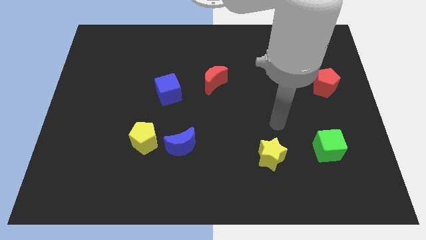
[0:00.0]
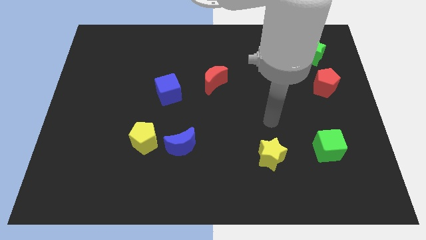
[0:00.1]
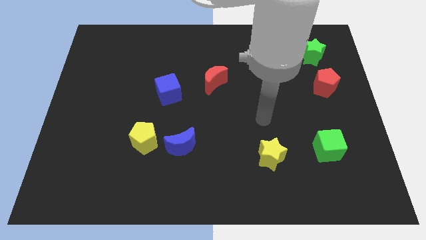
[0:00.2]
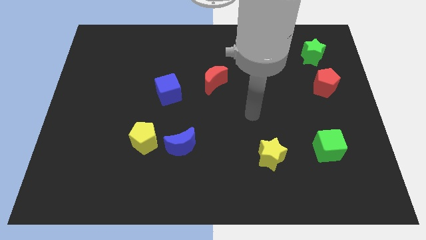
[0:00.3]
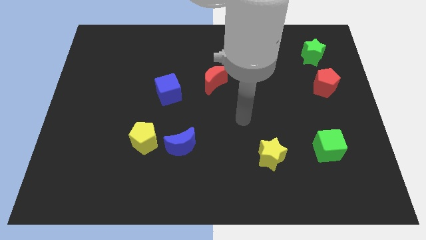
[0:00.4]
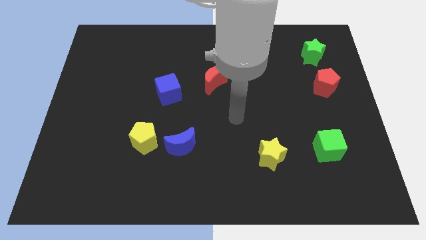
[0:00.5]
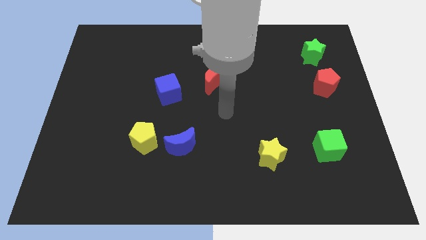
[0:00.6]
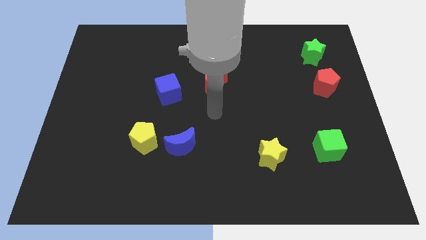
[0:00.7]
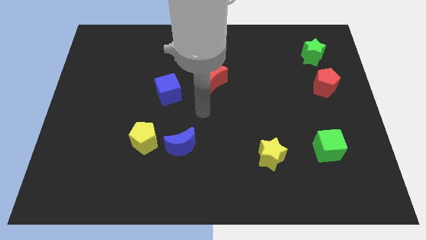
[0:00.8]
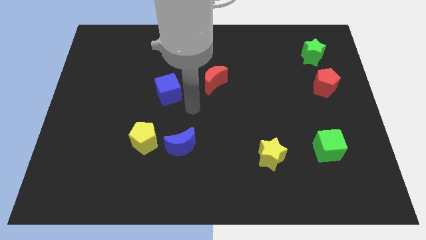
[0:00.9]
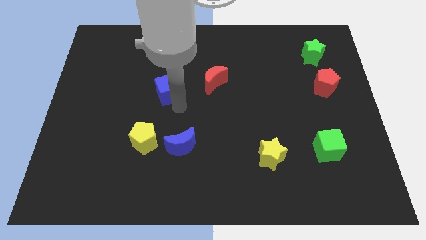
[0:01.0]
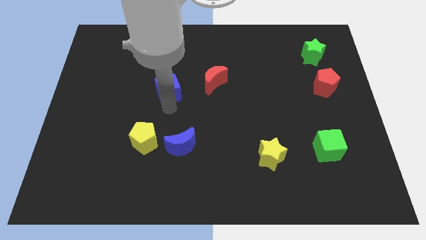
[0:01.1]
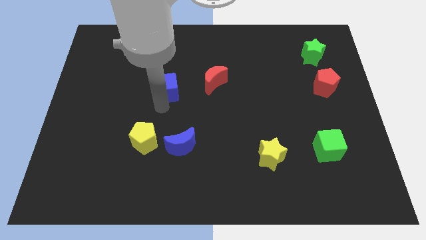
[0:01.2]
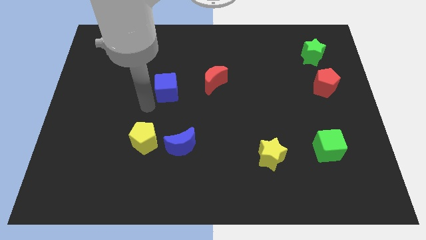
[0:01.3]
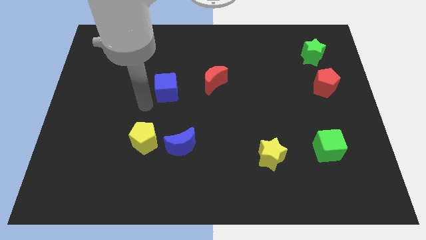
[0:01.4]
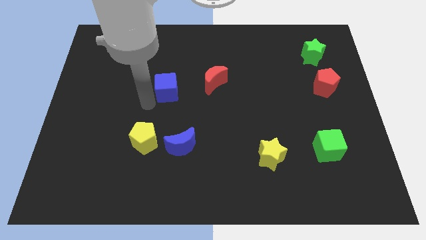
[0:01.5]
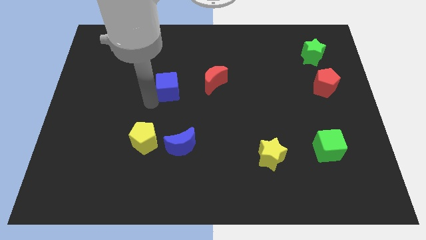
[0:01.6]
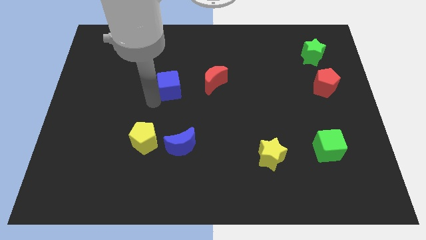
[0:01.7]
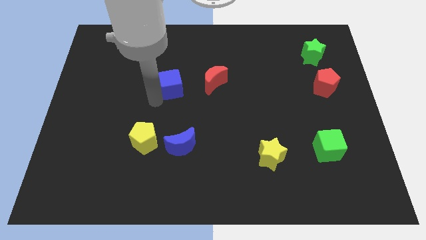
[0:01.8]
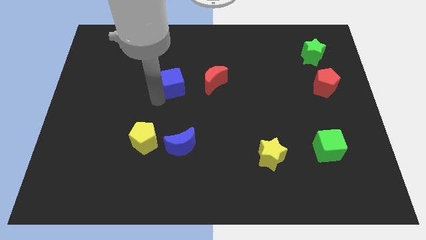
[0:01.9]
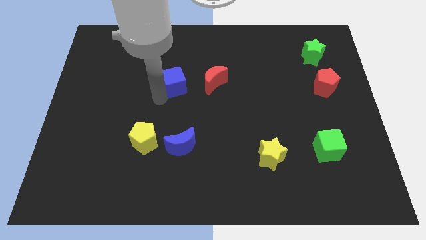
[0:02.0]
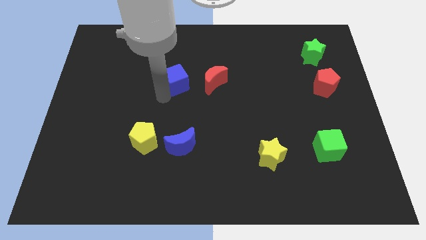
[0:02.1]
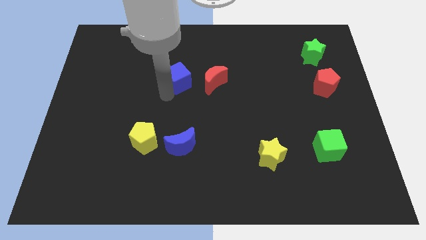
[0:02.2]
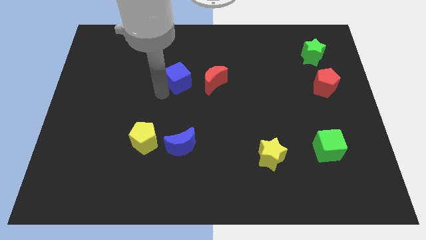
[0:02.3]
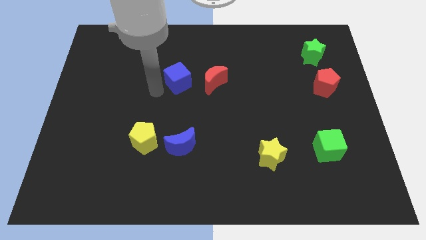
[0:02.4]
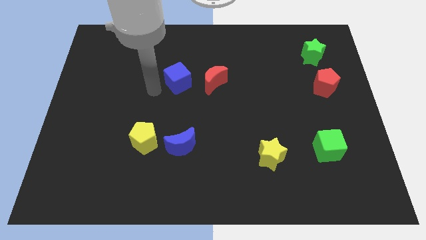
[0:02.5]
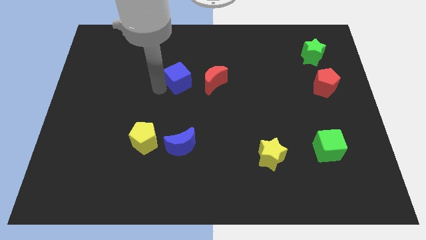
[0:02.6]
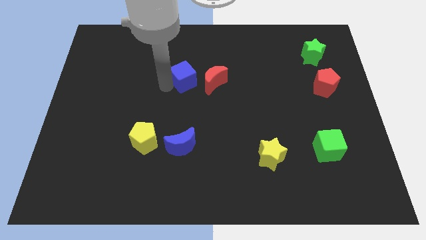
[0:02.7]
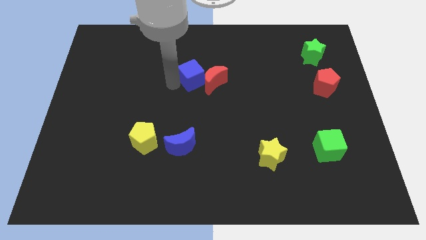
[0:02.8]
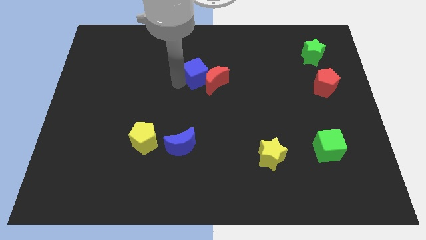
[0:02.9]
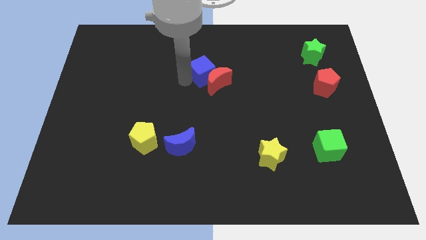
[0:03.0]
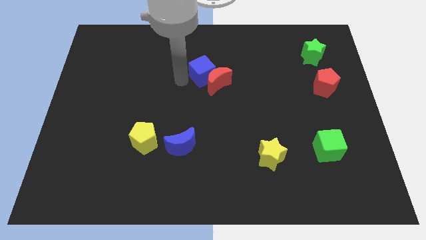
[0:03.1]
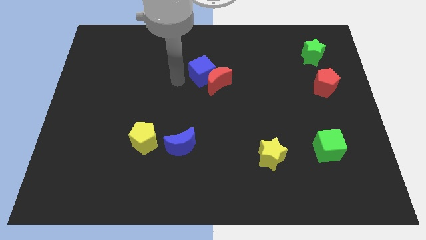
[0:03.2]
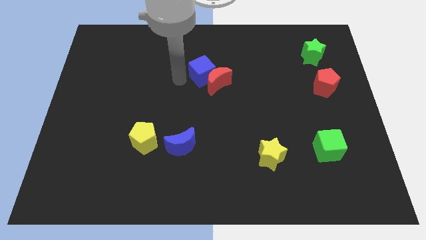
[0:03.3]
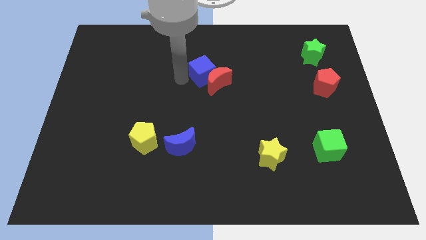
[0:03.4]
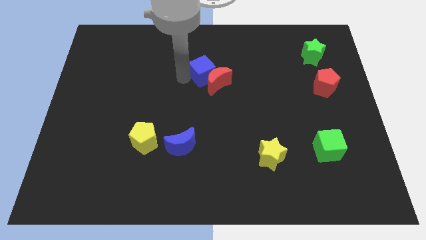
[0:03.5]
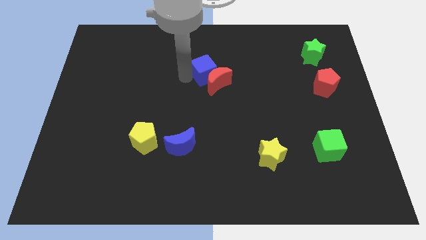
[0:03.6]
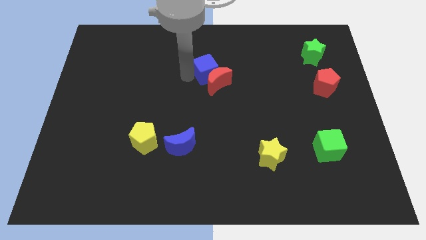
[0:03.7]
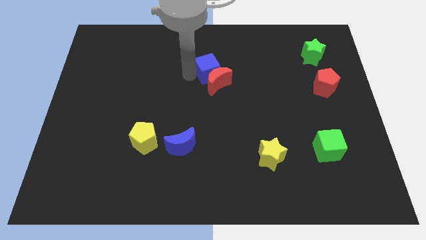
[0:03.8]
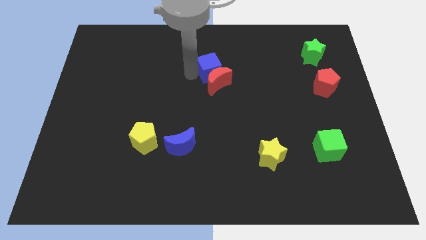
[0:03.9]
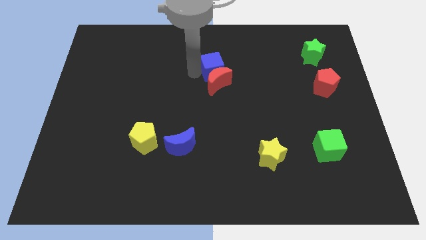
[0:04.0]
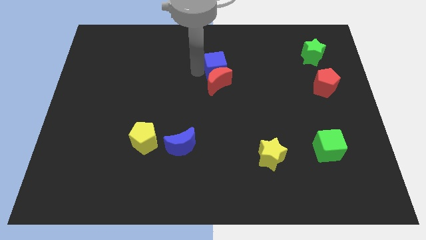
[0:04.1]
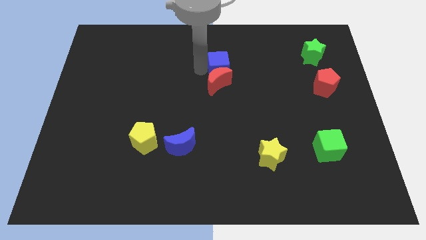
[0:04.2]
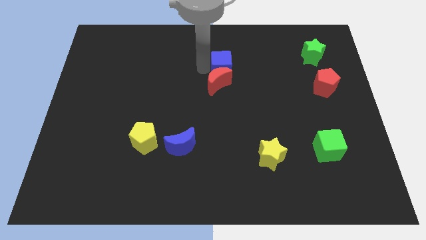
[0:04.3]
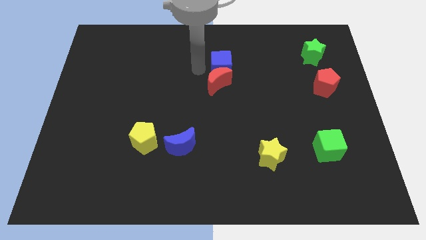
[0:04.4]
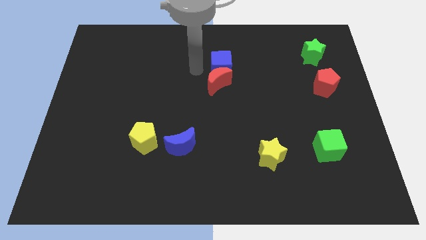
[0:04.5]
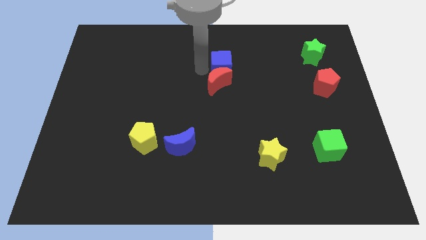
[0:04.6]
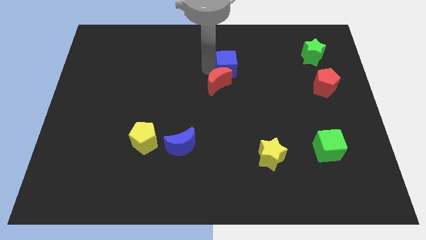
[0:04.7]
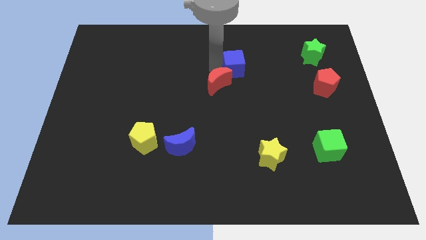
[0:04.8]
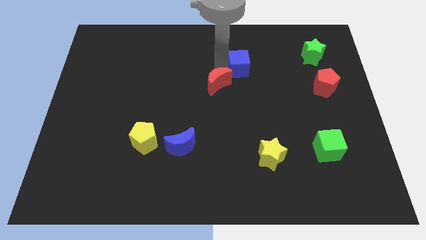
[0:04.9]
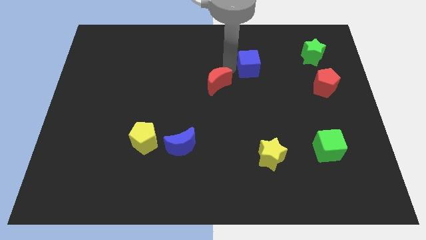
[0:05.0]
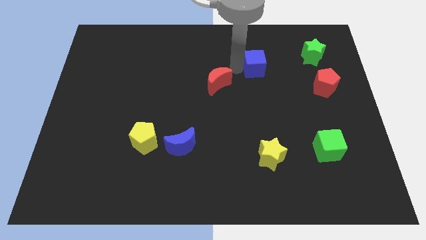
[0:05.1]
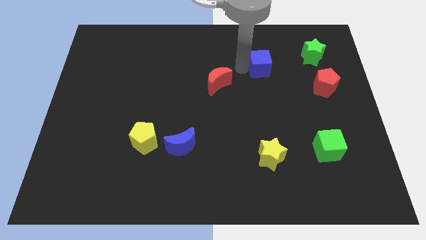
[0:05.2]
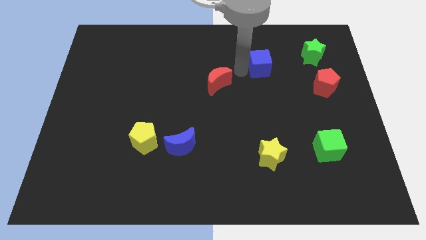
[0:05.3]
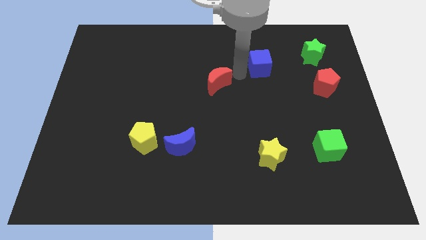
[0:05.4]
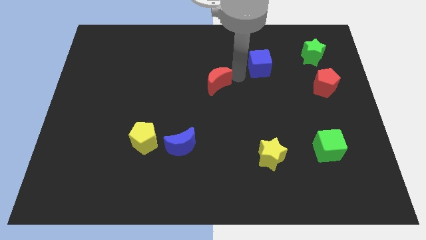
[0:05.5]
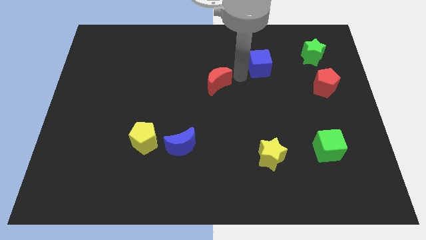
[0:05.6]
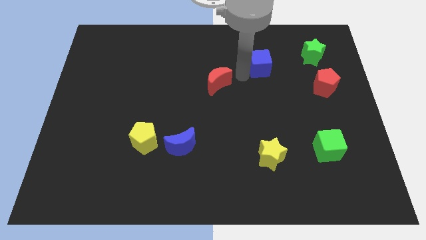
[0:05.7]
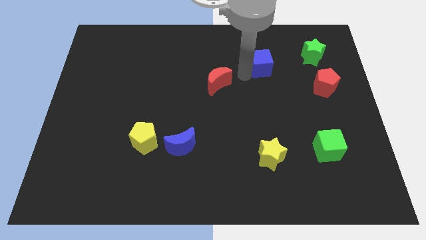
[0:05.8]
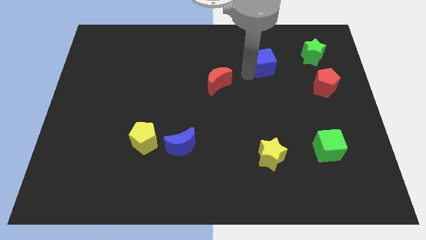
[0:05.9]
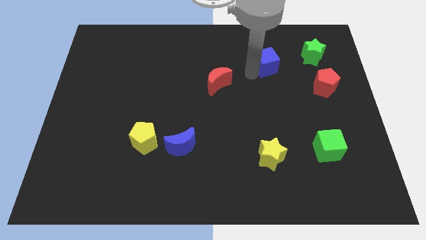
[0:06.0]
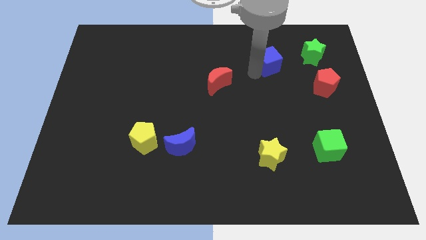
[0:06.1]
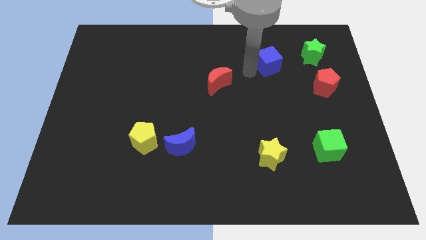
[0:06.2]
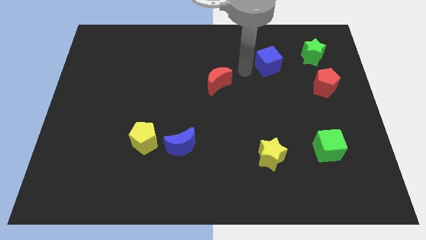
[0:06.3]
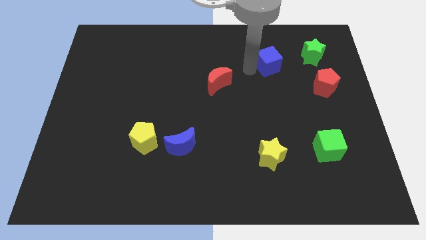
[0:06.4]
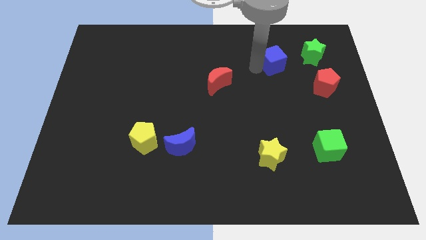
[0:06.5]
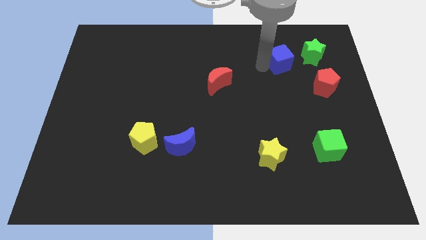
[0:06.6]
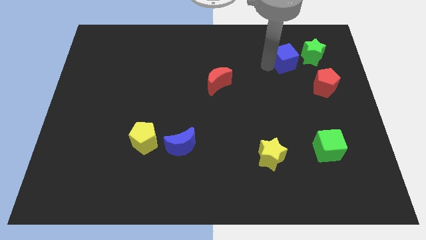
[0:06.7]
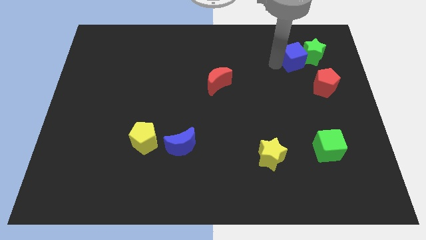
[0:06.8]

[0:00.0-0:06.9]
push the blue cube next to the green star
